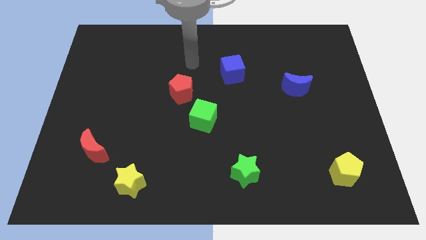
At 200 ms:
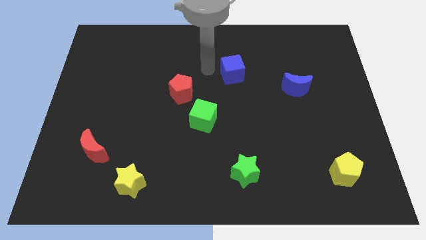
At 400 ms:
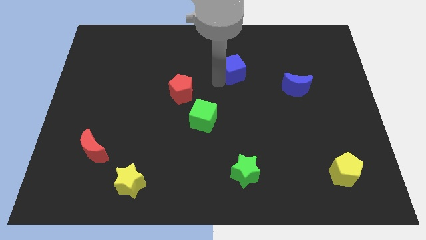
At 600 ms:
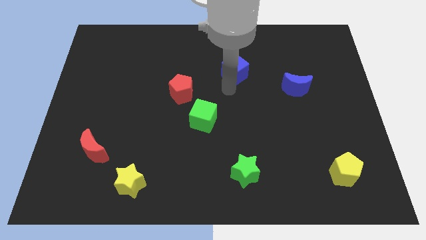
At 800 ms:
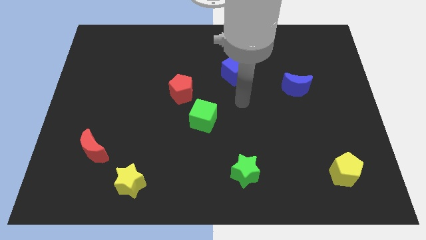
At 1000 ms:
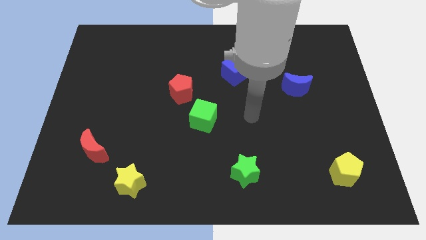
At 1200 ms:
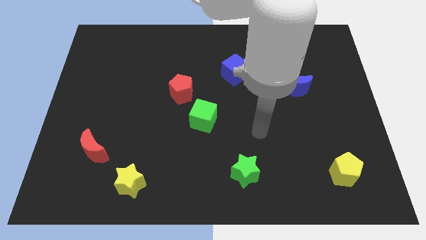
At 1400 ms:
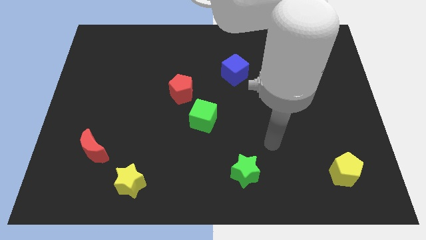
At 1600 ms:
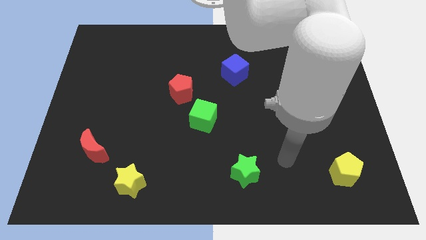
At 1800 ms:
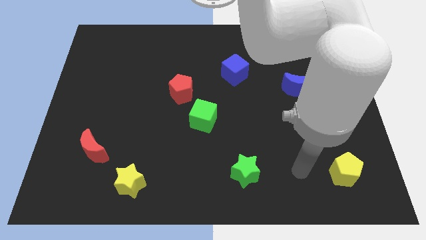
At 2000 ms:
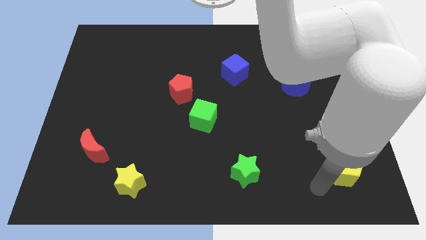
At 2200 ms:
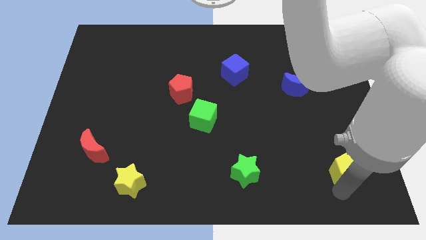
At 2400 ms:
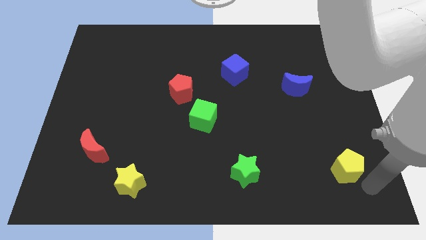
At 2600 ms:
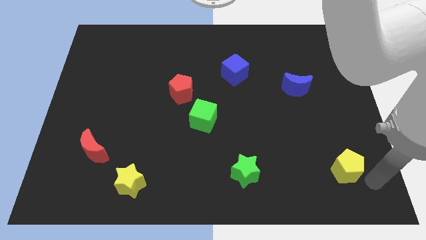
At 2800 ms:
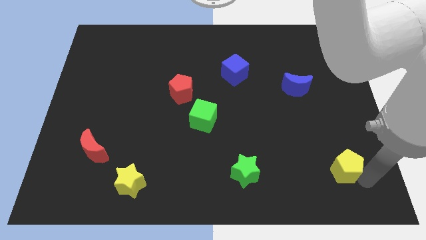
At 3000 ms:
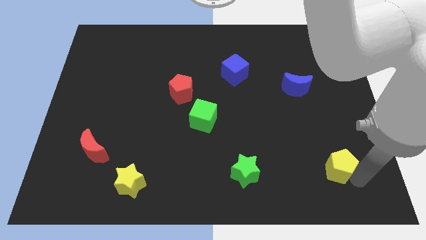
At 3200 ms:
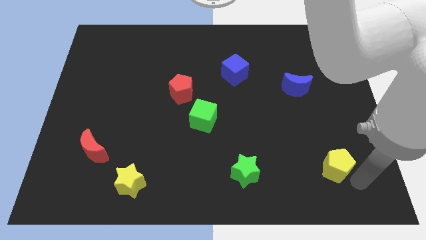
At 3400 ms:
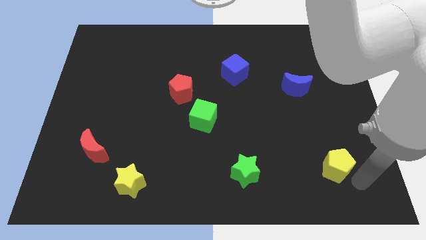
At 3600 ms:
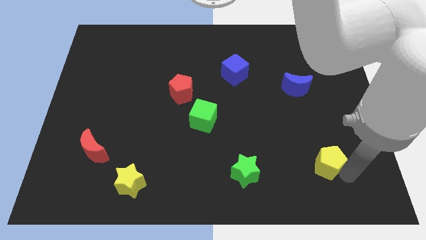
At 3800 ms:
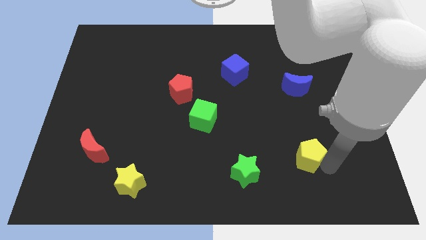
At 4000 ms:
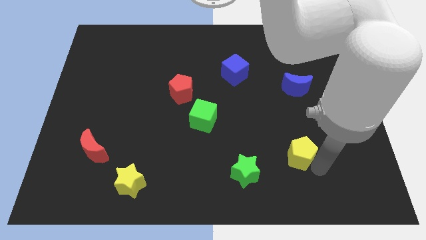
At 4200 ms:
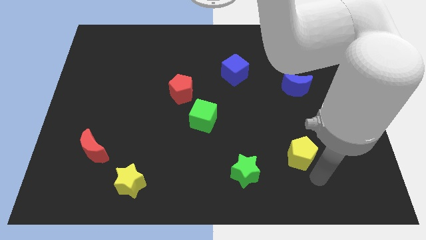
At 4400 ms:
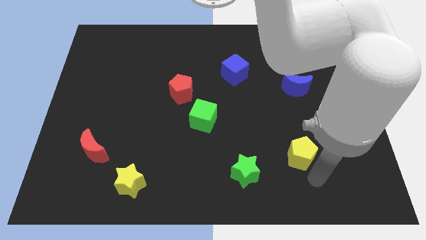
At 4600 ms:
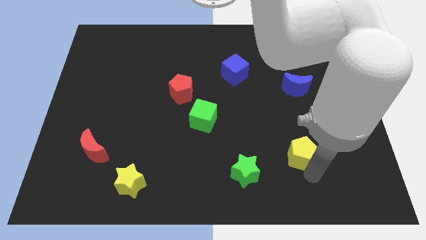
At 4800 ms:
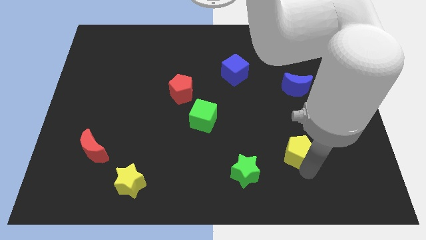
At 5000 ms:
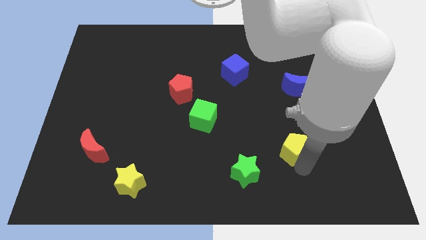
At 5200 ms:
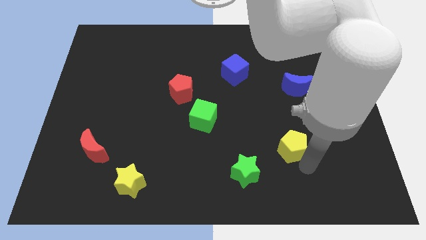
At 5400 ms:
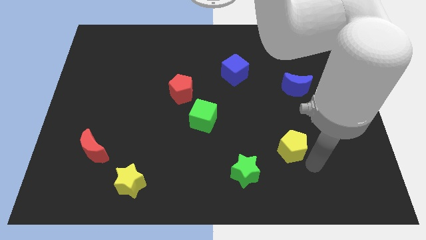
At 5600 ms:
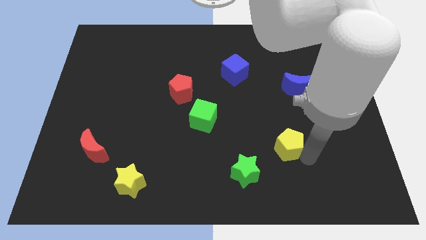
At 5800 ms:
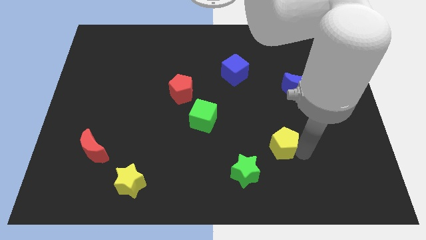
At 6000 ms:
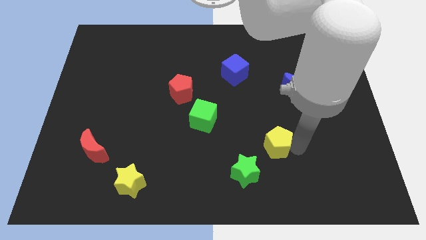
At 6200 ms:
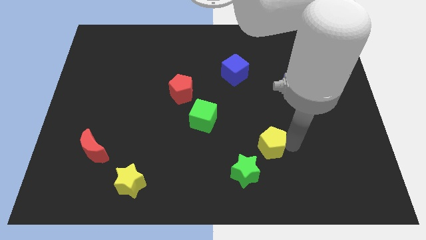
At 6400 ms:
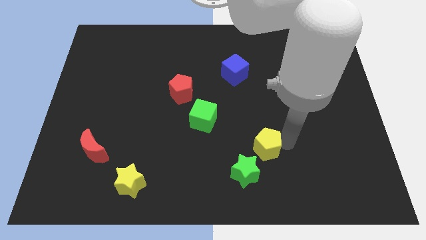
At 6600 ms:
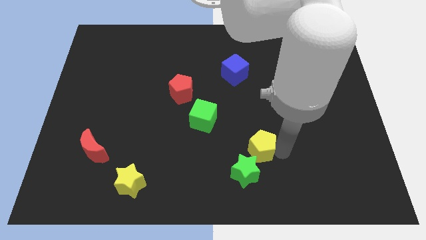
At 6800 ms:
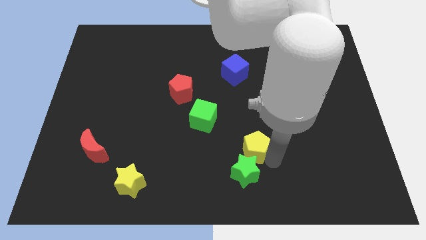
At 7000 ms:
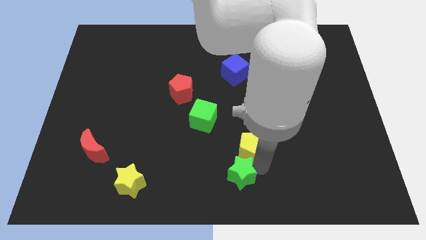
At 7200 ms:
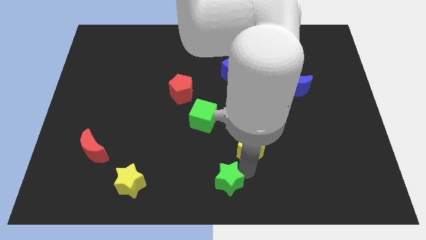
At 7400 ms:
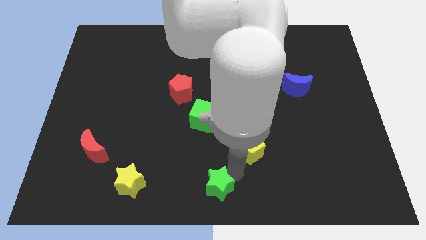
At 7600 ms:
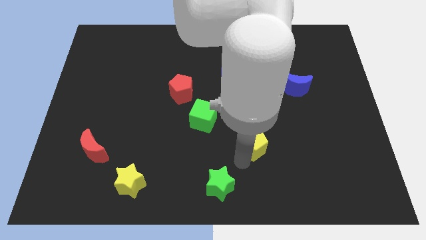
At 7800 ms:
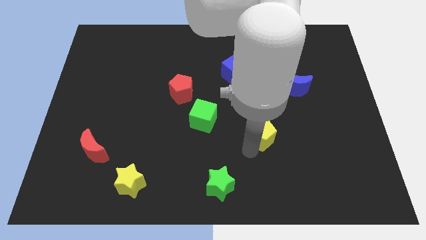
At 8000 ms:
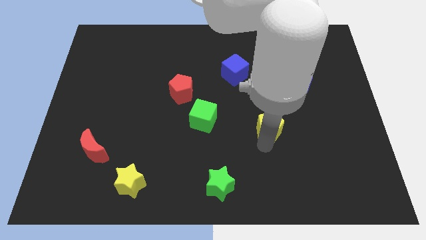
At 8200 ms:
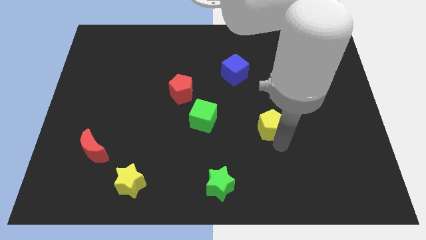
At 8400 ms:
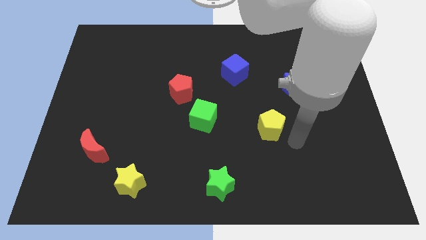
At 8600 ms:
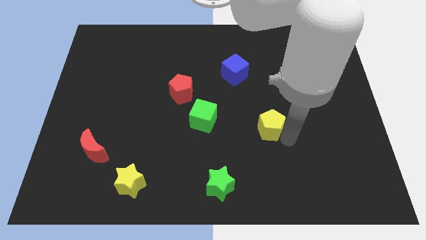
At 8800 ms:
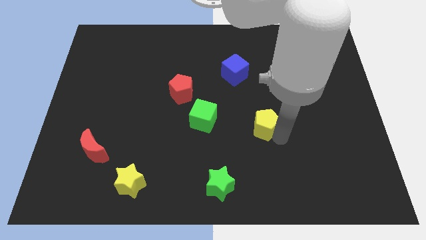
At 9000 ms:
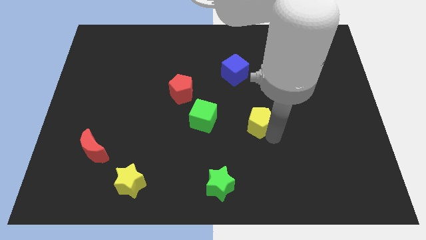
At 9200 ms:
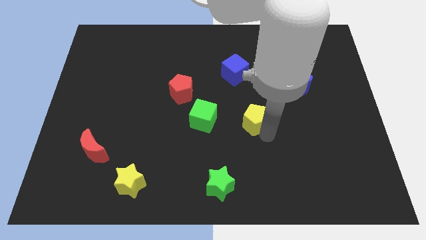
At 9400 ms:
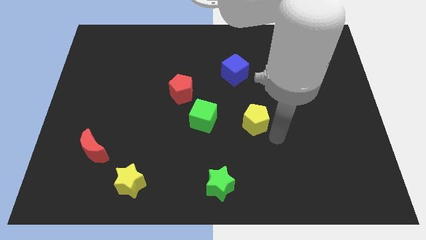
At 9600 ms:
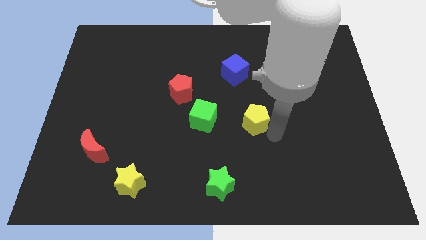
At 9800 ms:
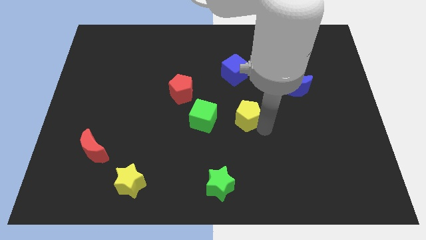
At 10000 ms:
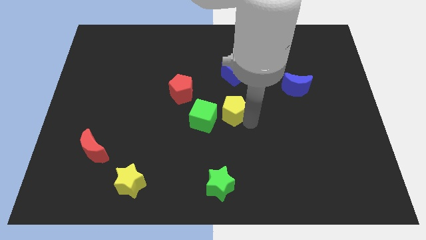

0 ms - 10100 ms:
push the yellow pentagon to the top right of the green cube

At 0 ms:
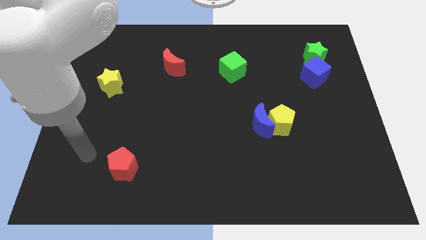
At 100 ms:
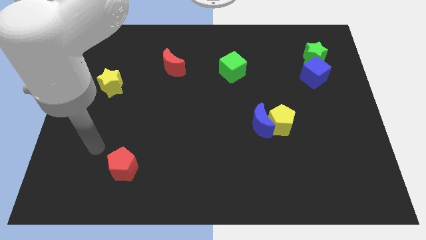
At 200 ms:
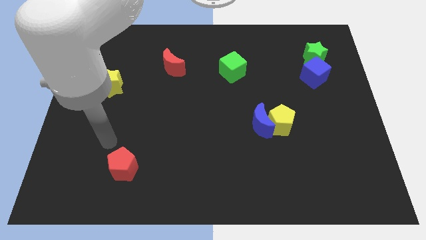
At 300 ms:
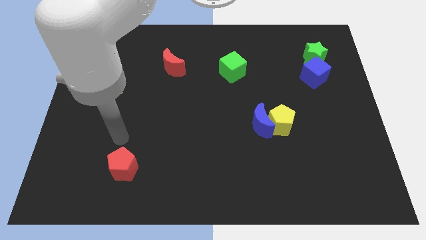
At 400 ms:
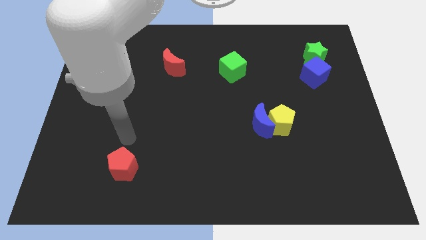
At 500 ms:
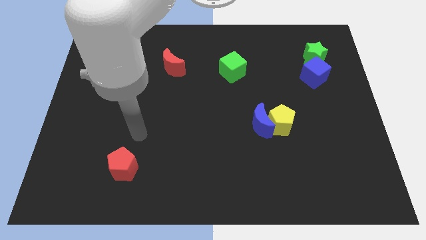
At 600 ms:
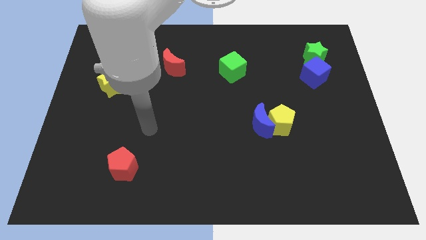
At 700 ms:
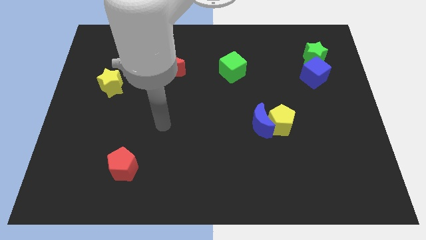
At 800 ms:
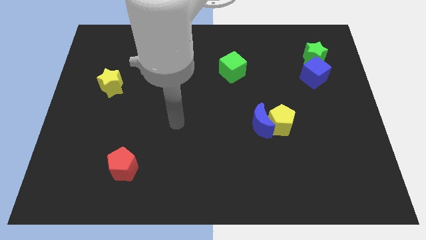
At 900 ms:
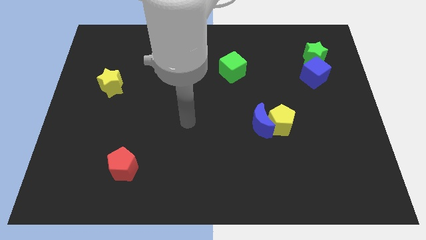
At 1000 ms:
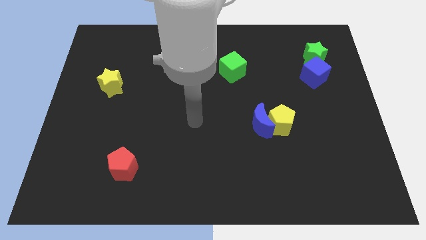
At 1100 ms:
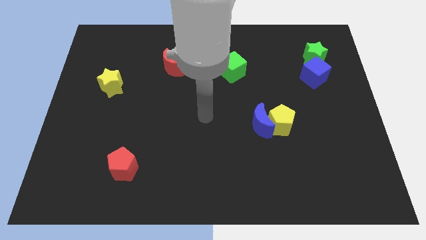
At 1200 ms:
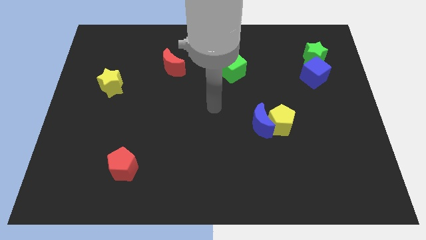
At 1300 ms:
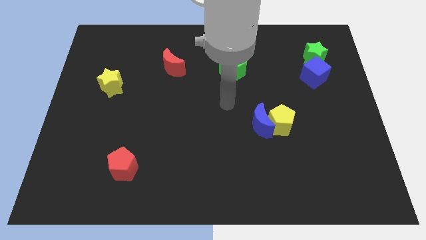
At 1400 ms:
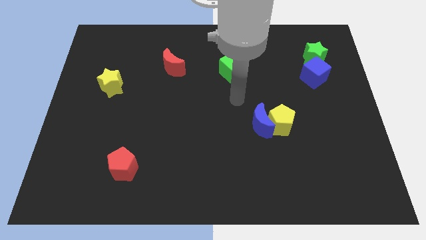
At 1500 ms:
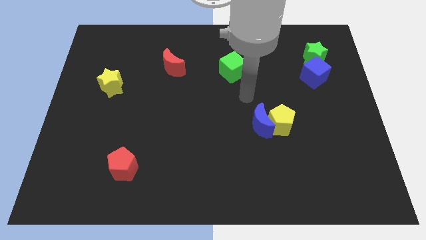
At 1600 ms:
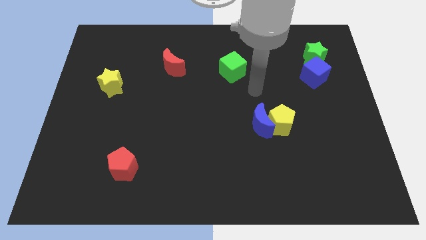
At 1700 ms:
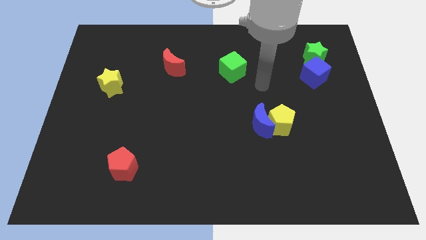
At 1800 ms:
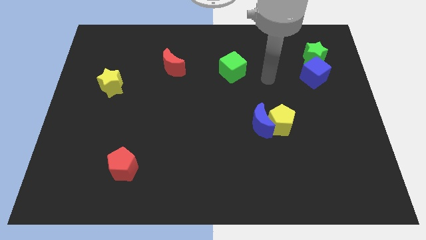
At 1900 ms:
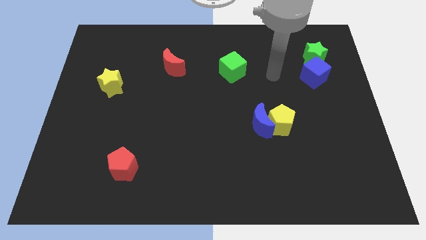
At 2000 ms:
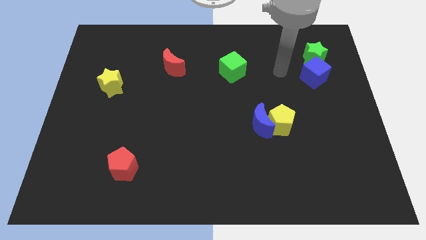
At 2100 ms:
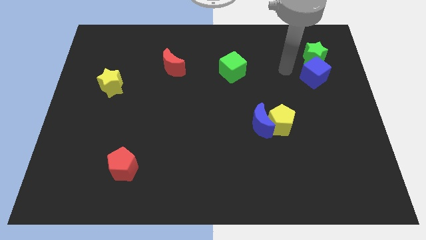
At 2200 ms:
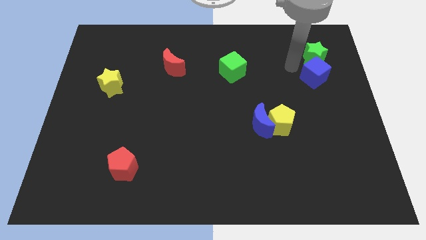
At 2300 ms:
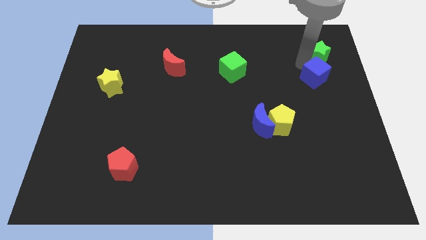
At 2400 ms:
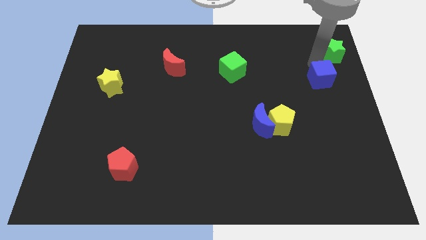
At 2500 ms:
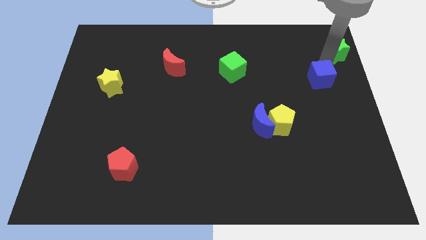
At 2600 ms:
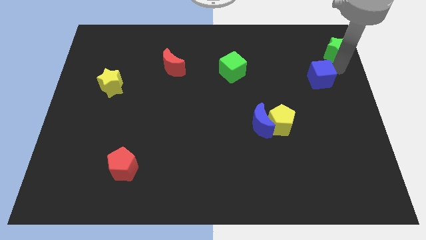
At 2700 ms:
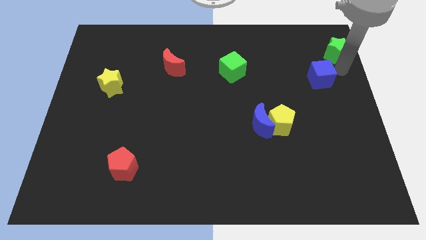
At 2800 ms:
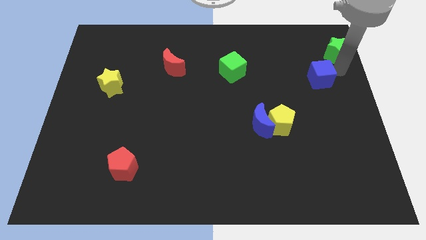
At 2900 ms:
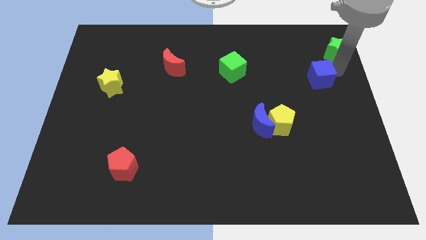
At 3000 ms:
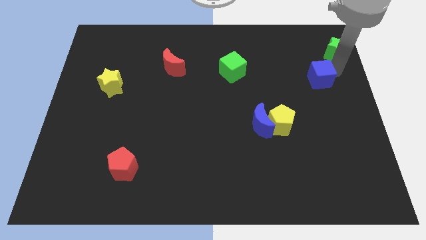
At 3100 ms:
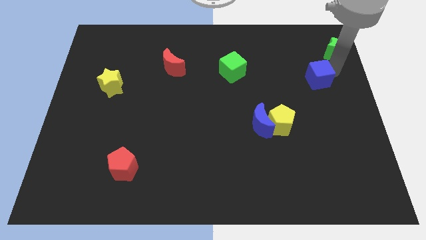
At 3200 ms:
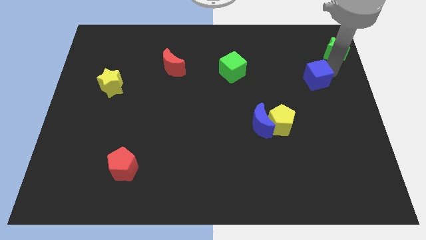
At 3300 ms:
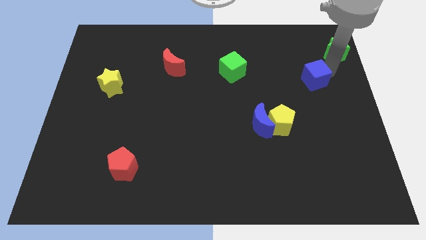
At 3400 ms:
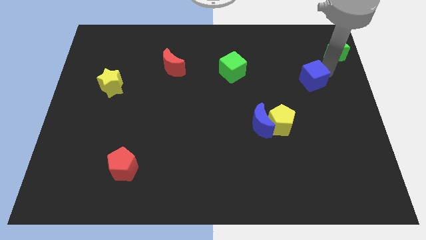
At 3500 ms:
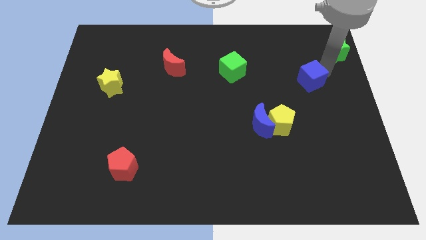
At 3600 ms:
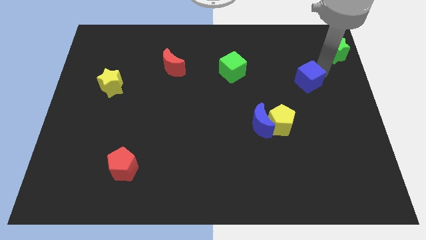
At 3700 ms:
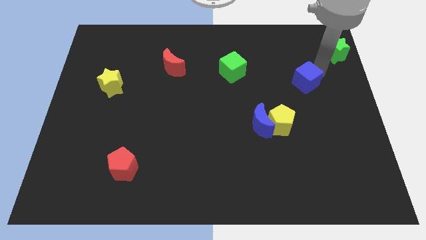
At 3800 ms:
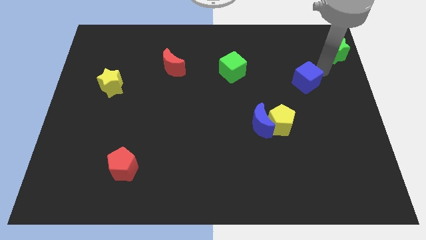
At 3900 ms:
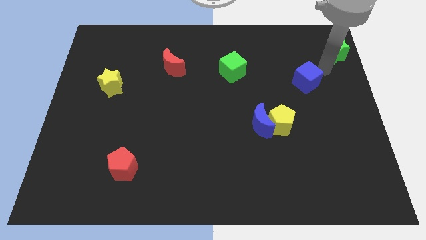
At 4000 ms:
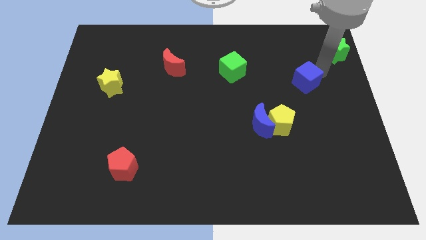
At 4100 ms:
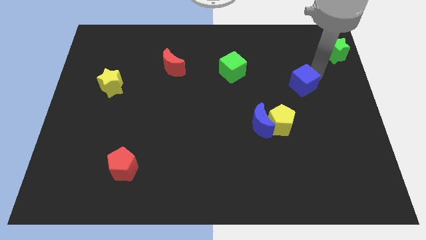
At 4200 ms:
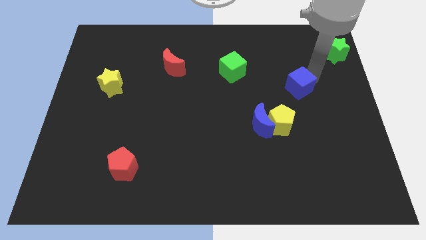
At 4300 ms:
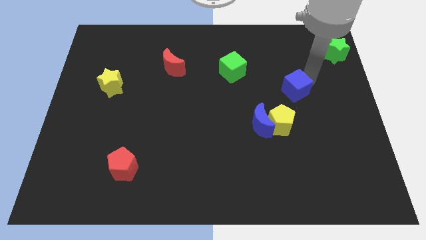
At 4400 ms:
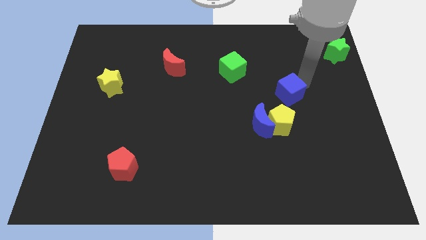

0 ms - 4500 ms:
slide the blue cube to the top right of the blue moon
